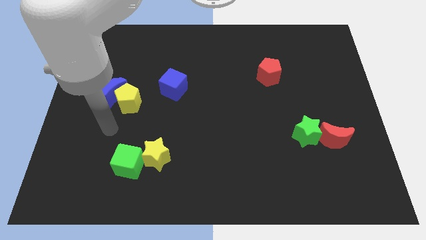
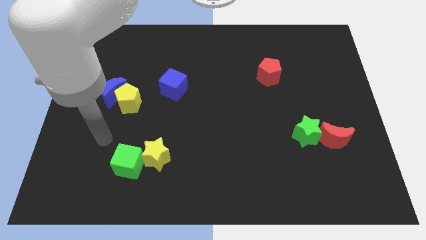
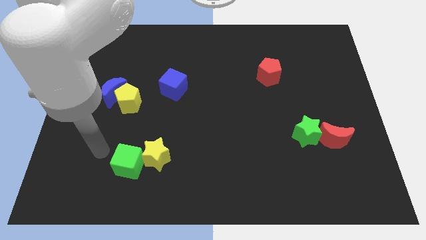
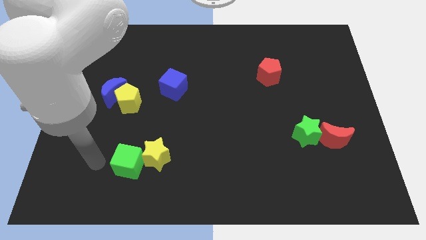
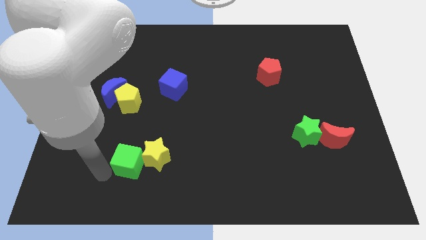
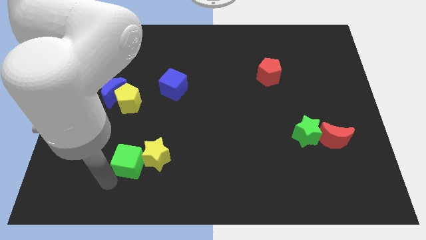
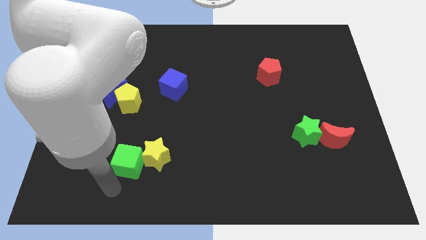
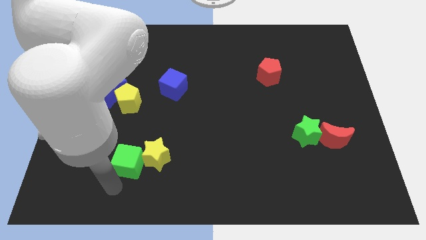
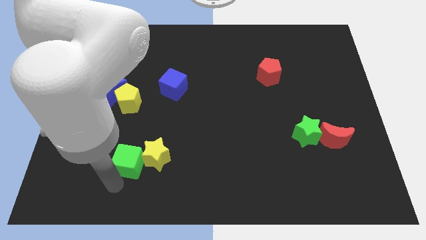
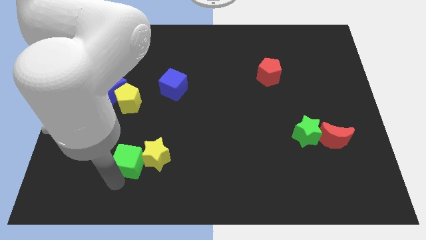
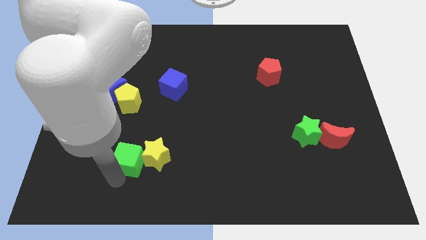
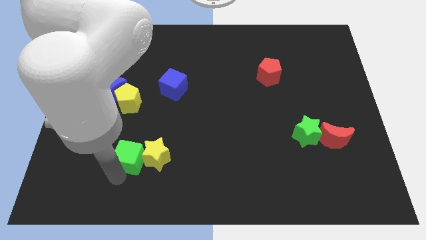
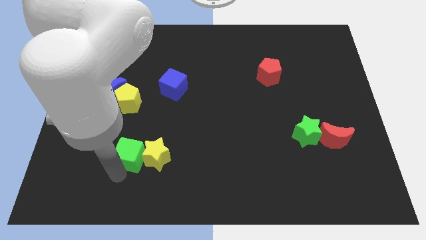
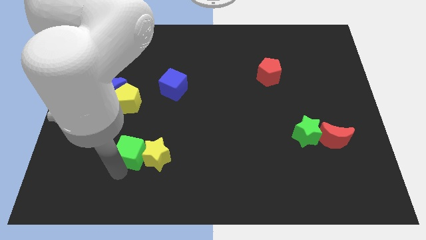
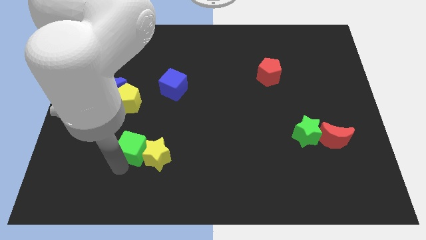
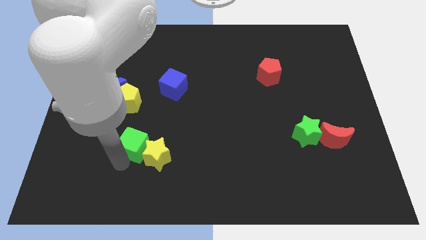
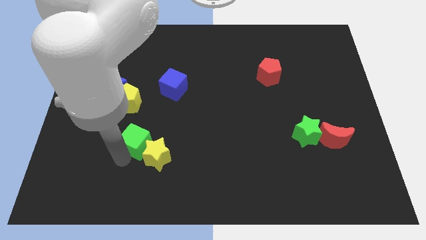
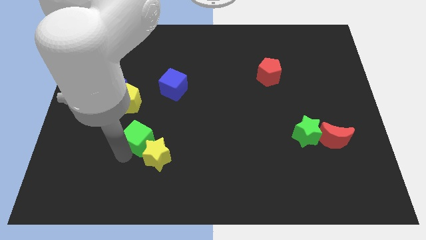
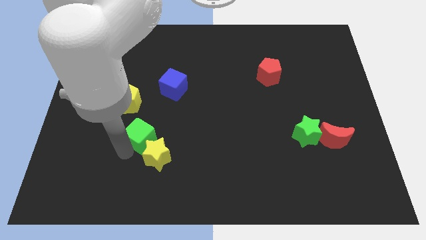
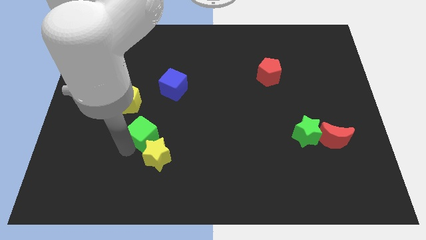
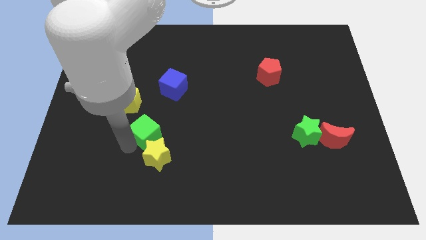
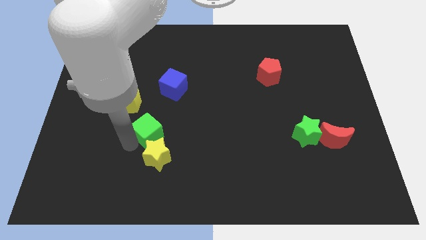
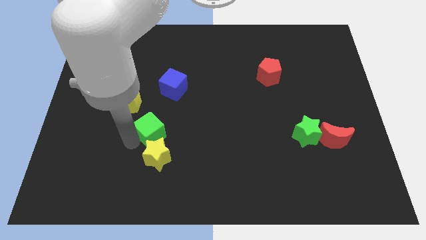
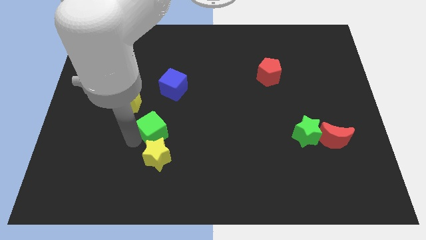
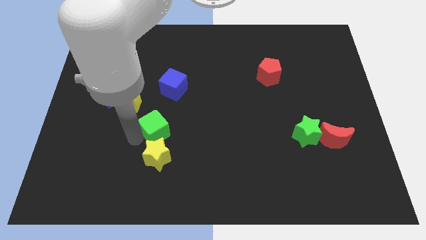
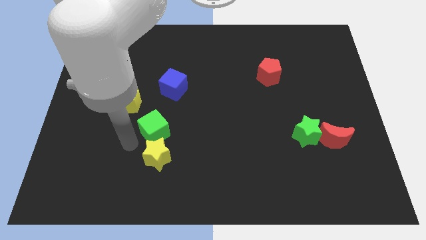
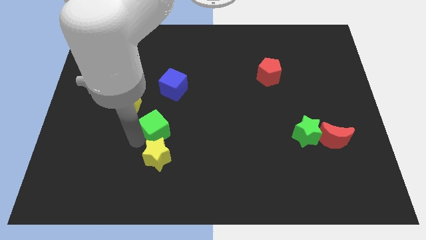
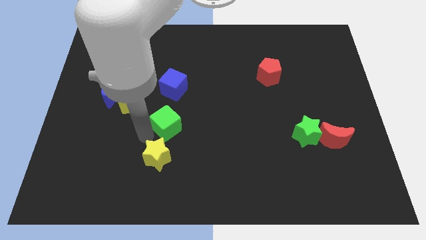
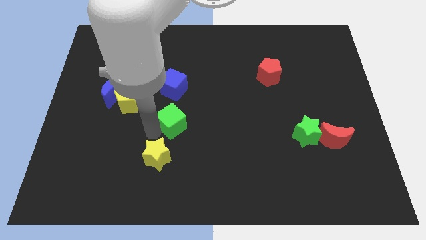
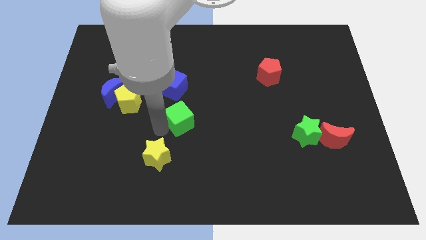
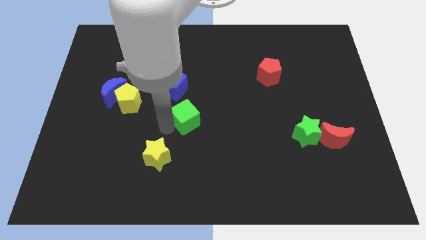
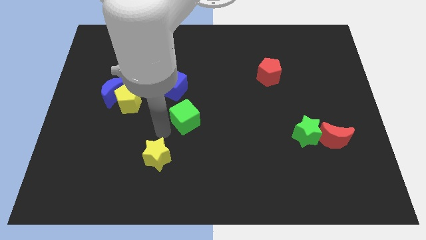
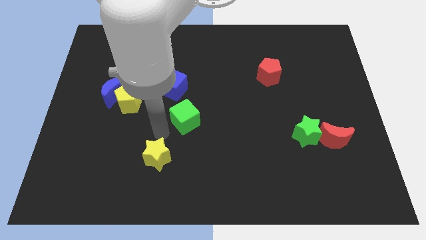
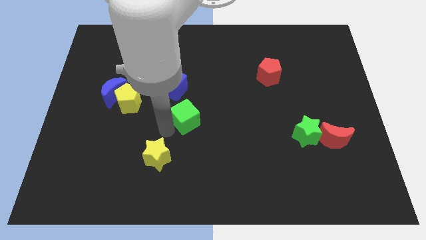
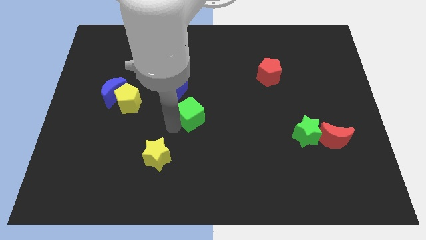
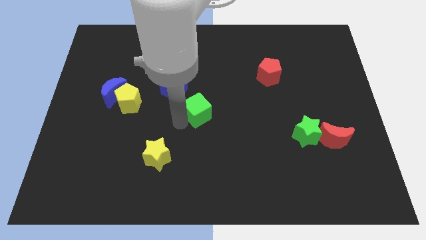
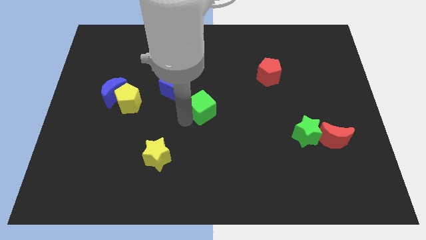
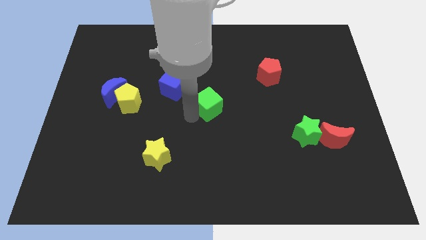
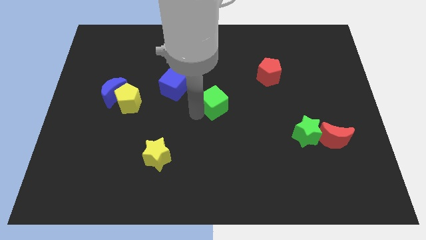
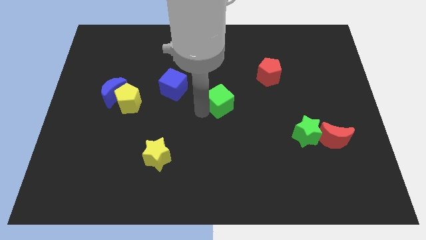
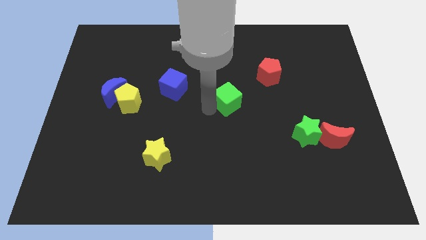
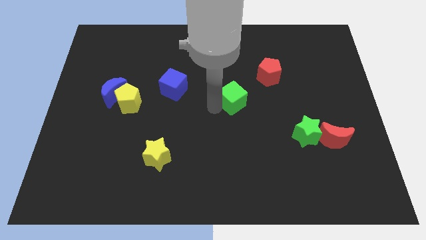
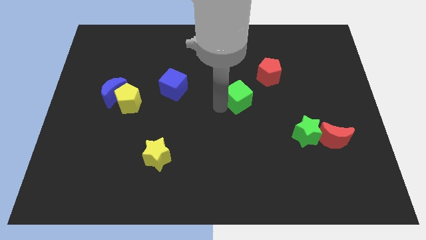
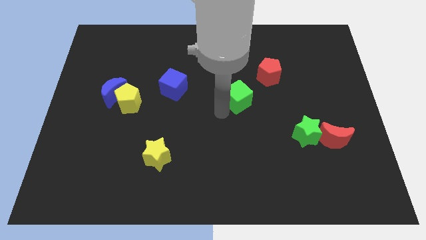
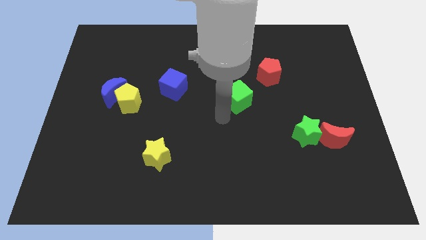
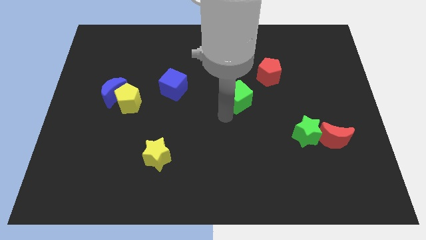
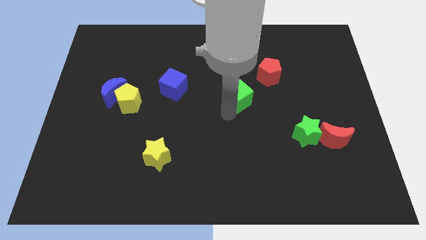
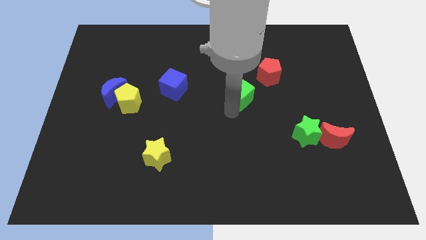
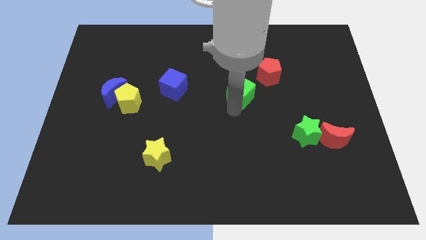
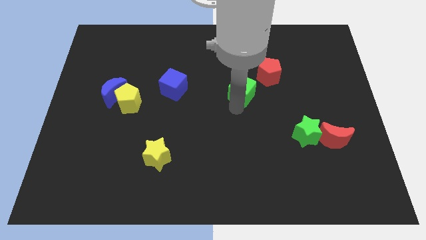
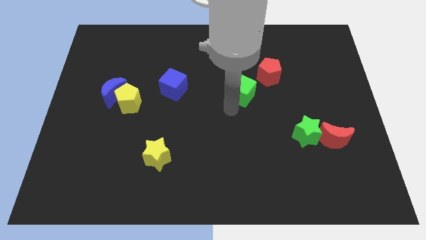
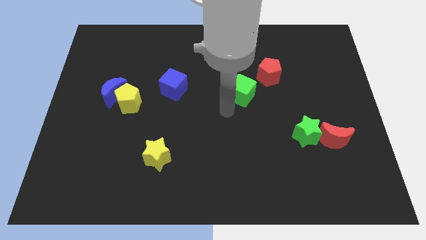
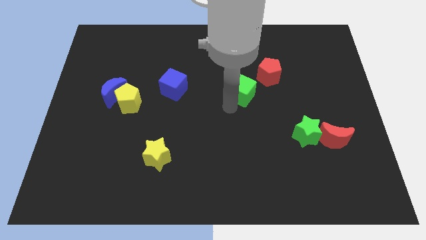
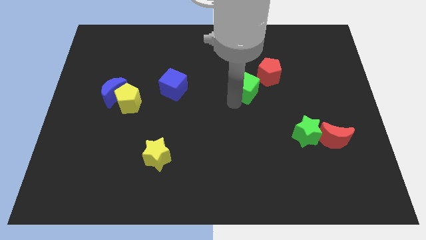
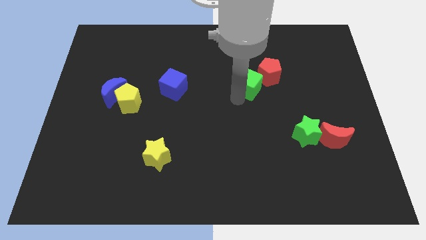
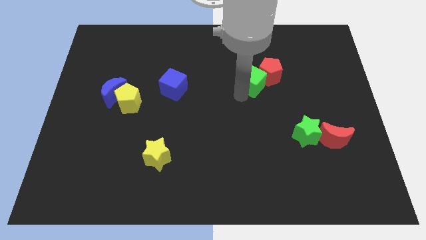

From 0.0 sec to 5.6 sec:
put the green cube close to the red pentagon

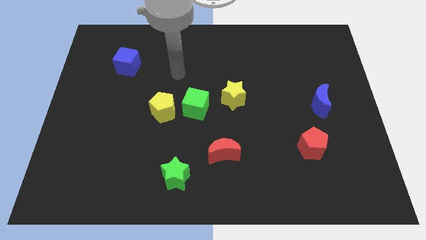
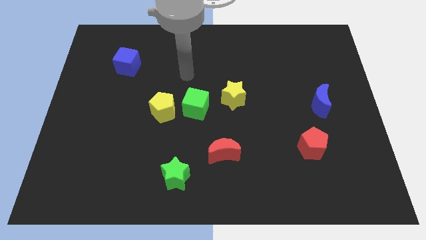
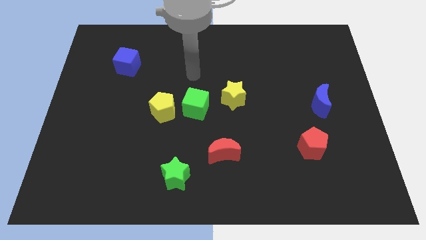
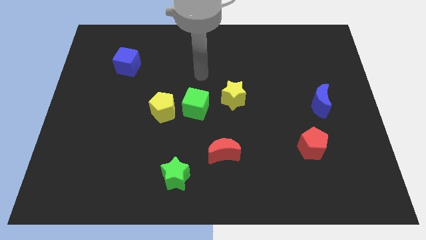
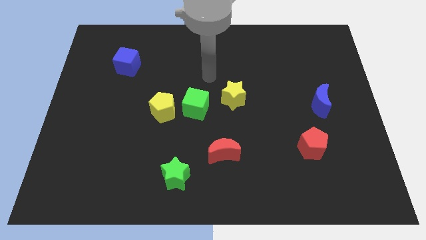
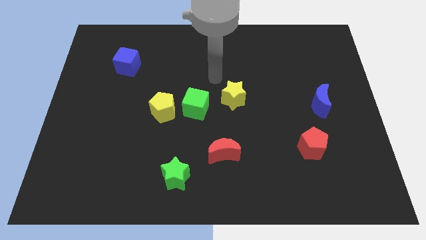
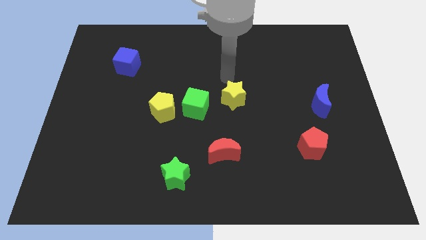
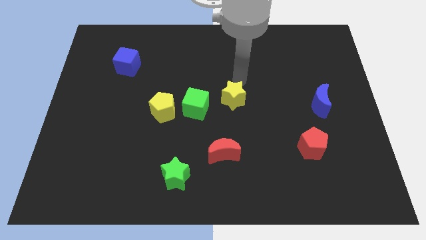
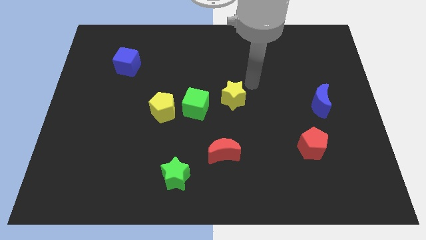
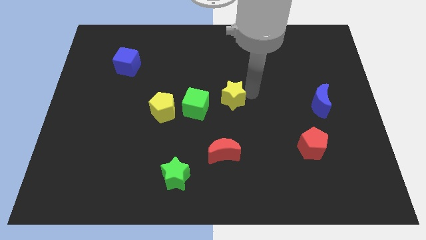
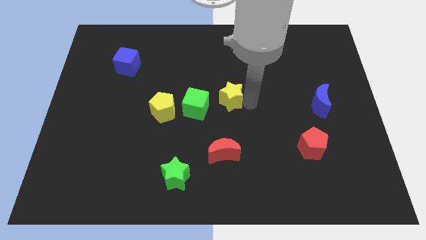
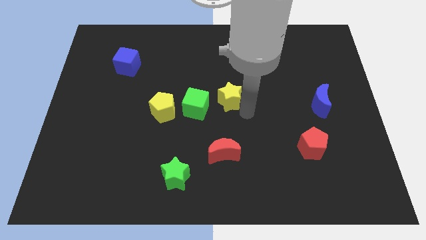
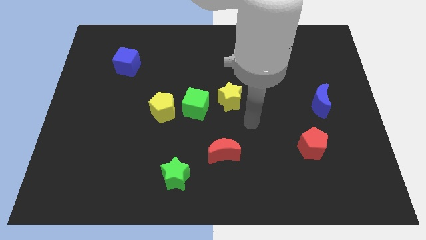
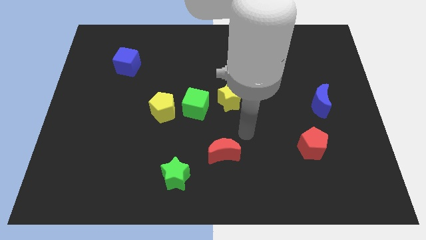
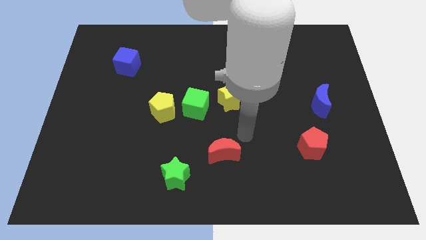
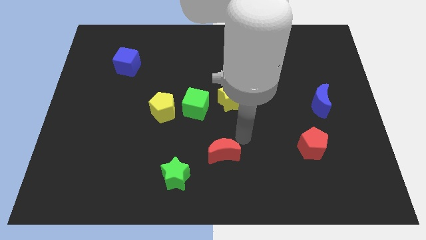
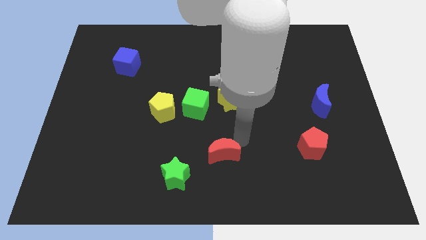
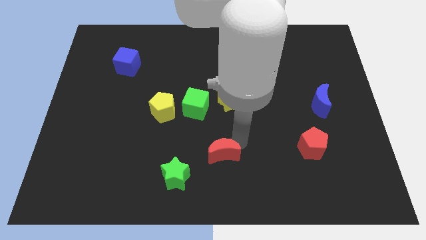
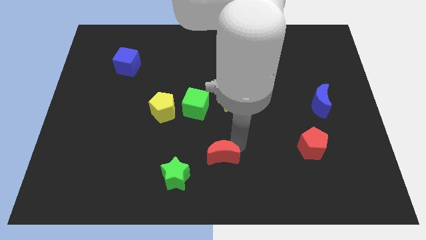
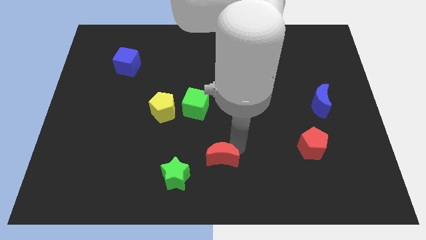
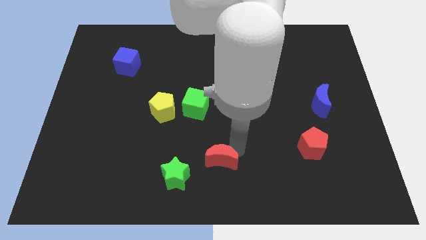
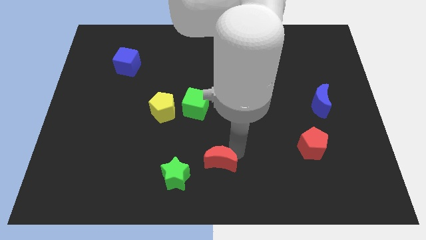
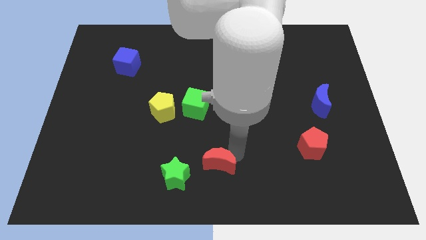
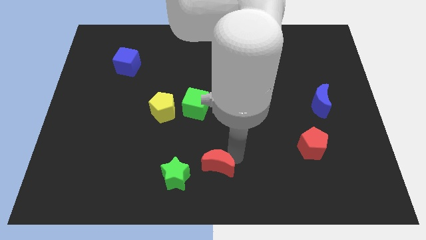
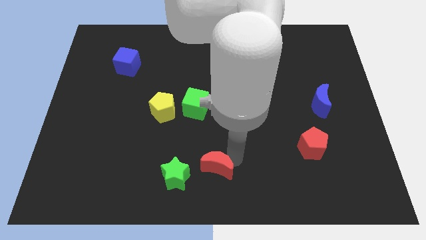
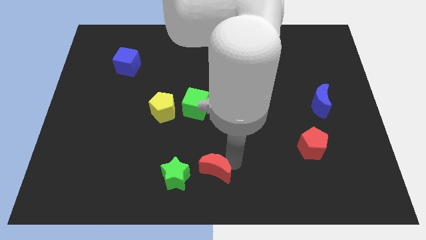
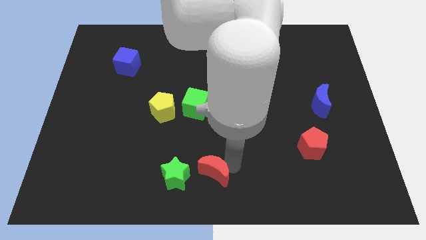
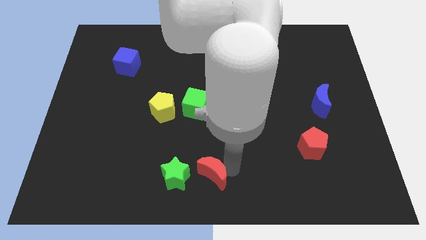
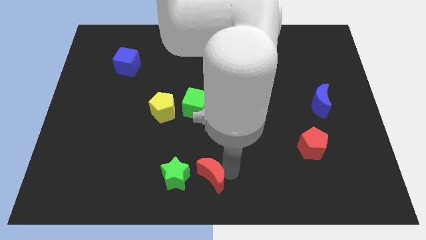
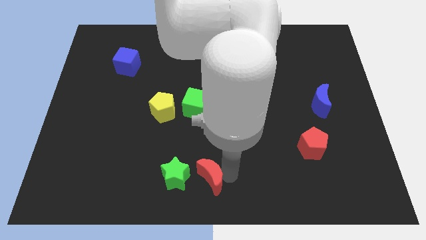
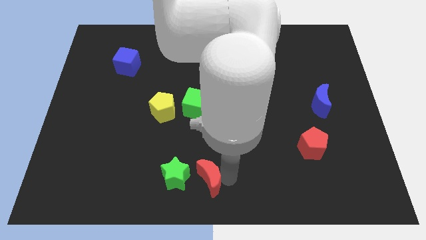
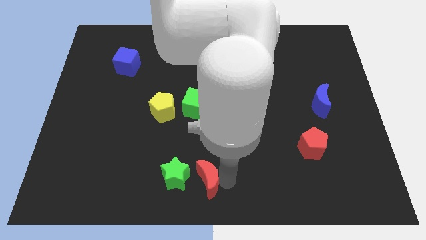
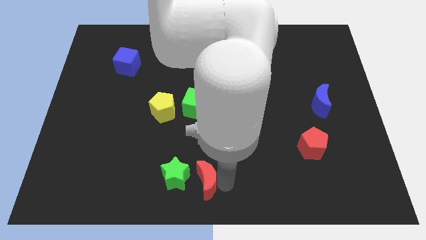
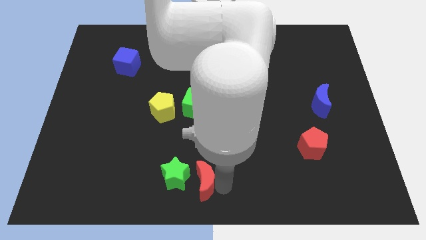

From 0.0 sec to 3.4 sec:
put the red moon close to the green star
